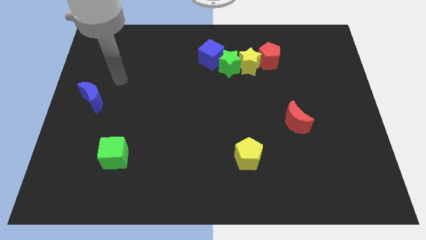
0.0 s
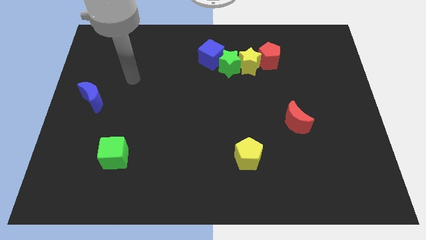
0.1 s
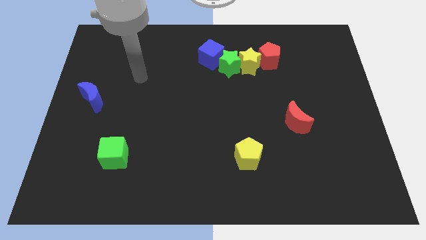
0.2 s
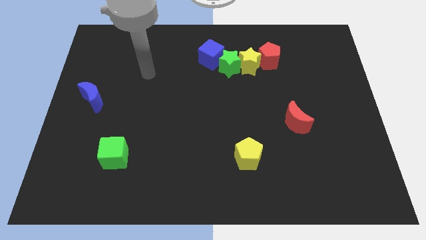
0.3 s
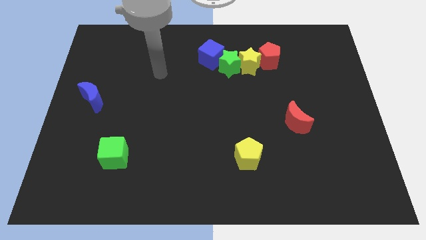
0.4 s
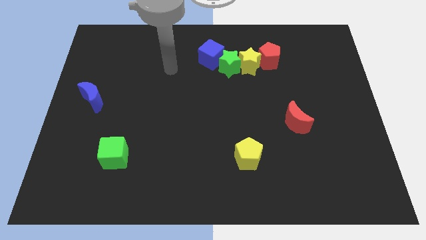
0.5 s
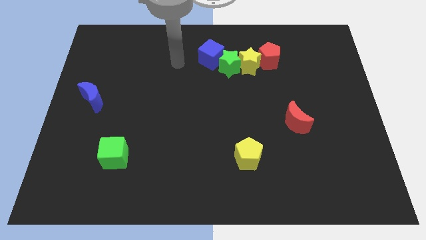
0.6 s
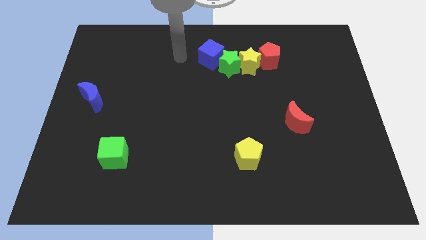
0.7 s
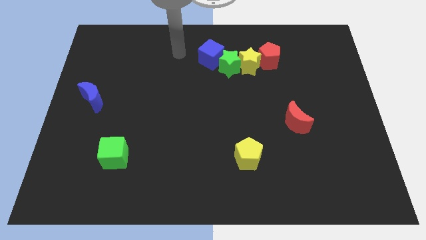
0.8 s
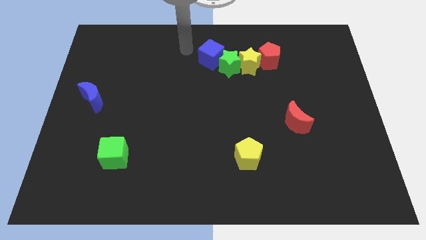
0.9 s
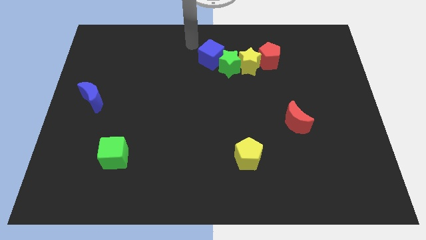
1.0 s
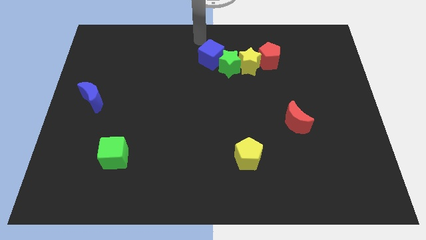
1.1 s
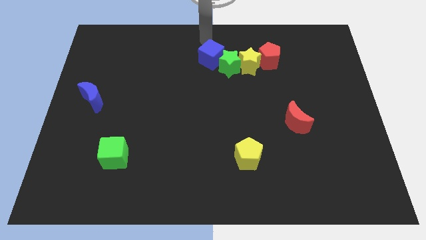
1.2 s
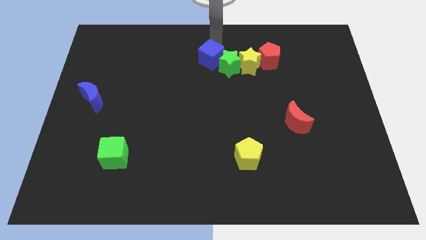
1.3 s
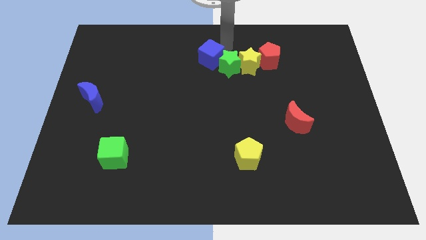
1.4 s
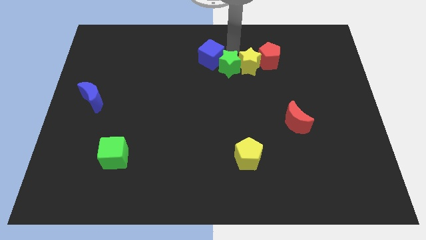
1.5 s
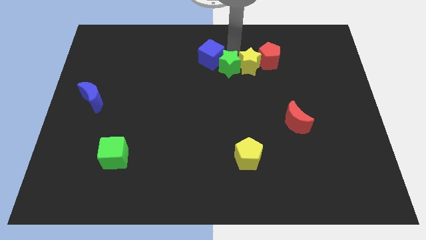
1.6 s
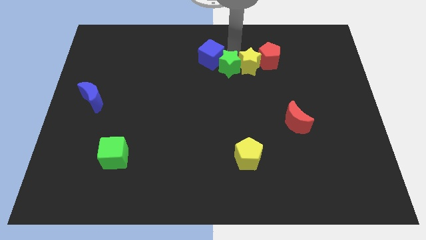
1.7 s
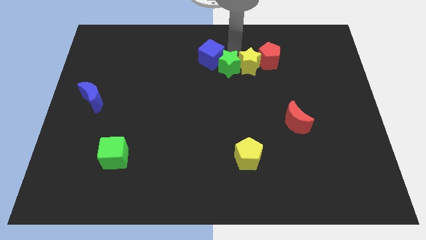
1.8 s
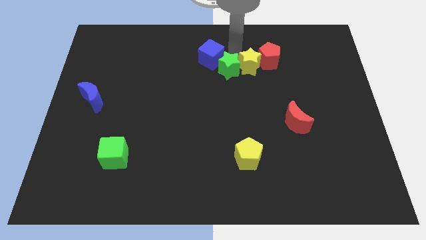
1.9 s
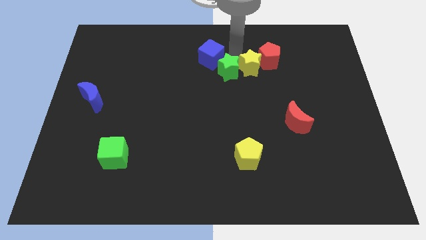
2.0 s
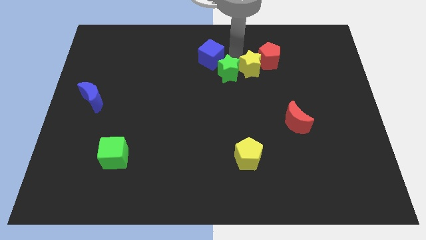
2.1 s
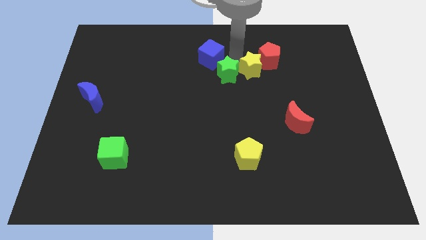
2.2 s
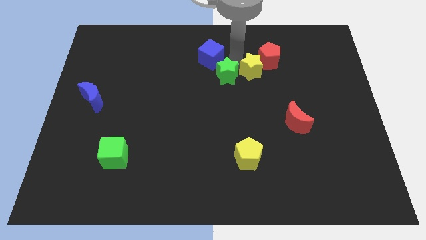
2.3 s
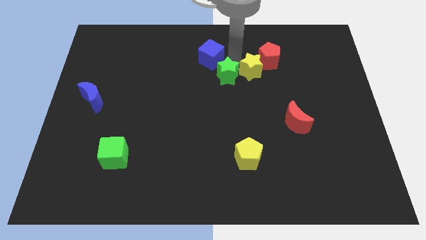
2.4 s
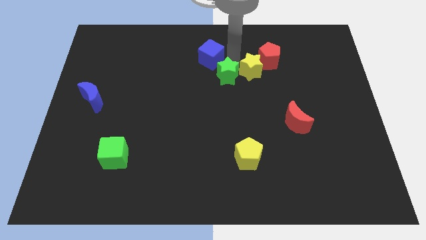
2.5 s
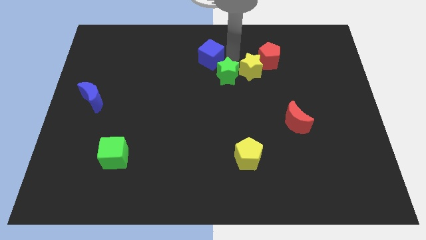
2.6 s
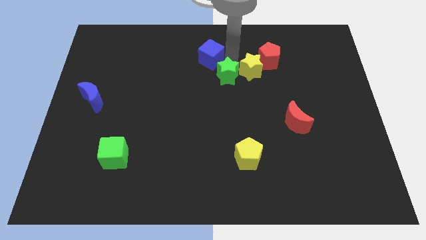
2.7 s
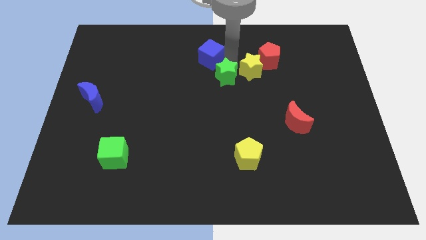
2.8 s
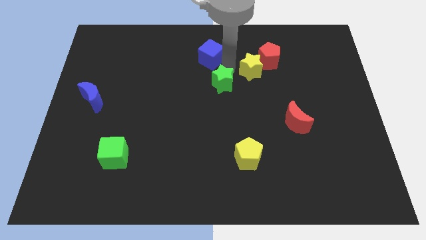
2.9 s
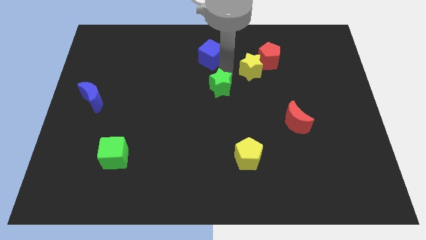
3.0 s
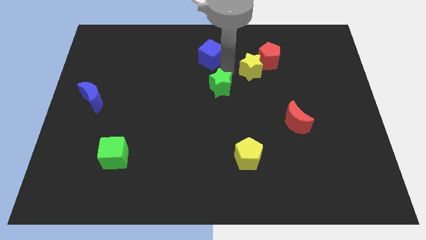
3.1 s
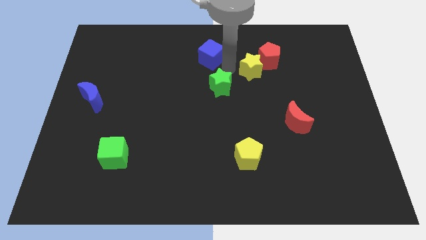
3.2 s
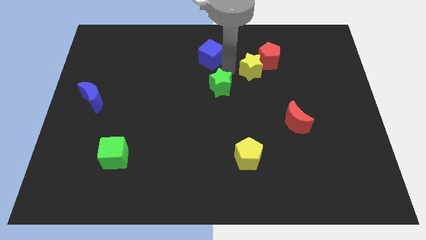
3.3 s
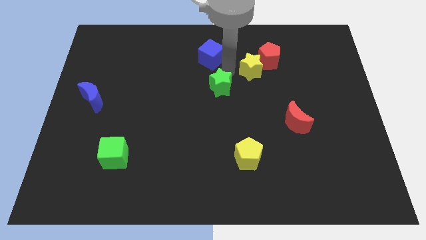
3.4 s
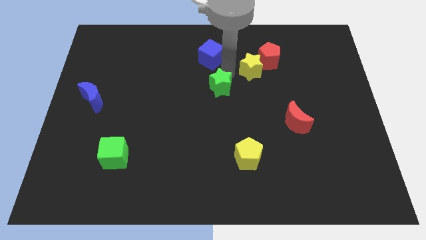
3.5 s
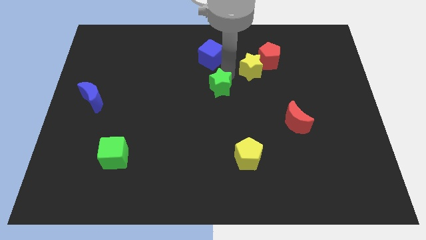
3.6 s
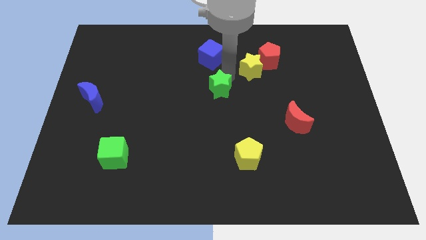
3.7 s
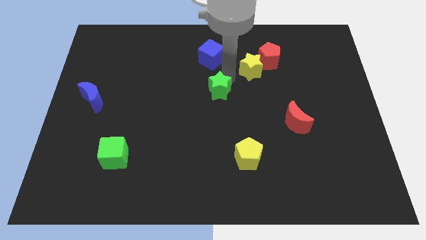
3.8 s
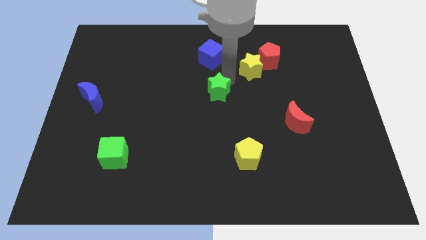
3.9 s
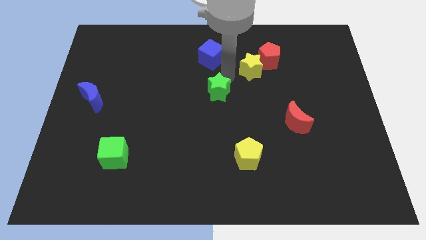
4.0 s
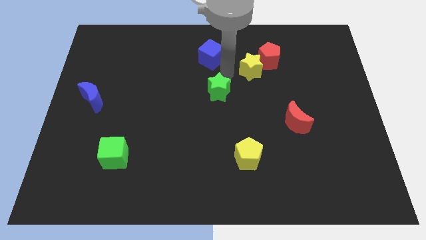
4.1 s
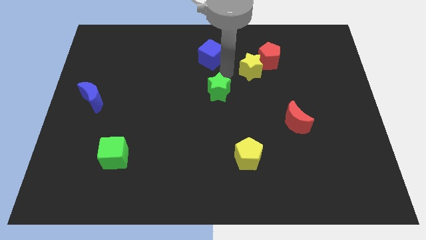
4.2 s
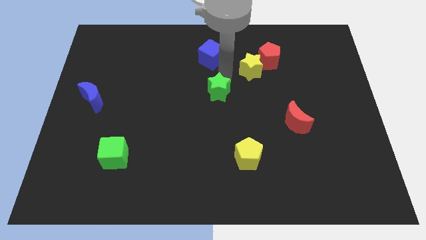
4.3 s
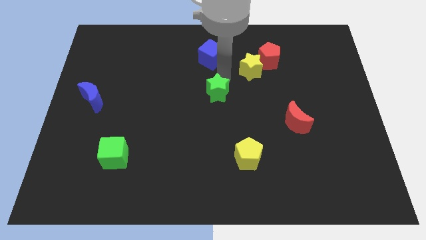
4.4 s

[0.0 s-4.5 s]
pull the green star apart from the yellow star and blue cube

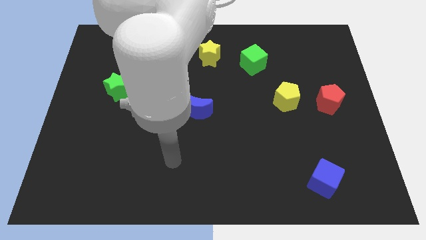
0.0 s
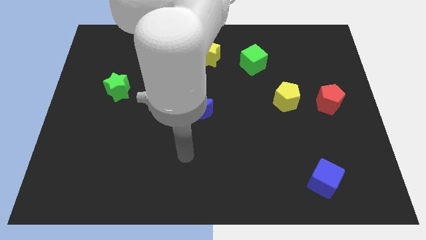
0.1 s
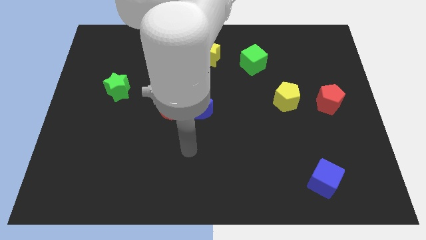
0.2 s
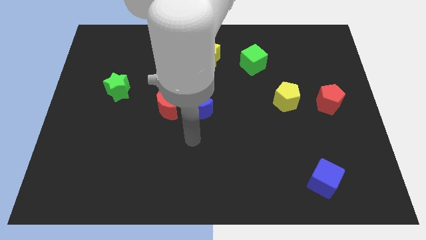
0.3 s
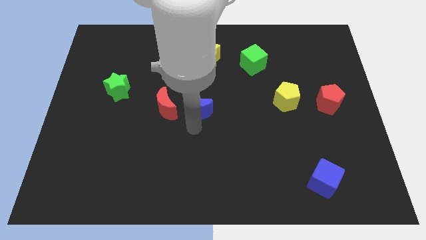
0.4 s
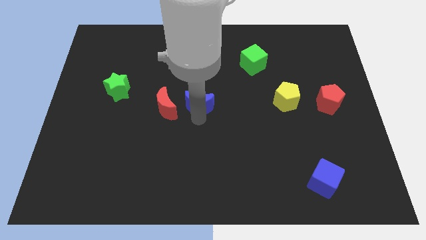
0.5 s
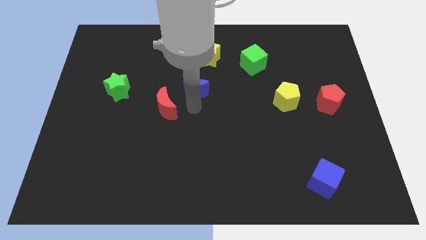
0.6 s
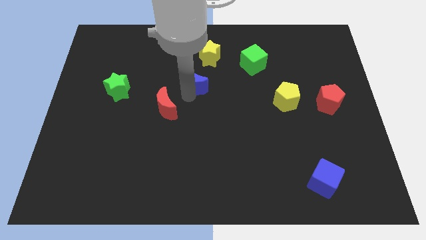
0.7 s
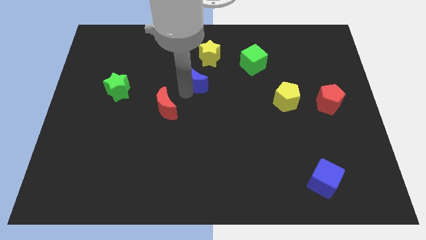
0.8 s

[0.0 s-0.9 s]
pull the red moon apart from the blue moon

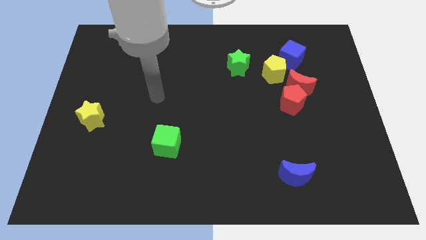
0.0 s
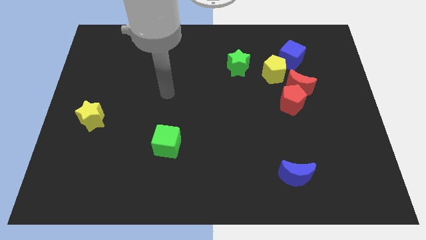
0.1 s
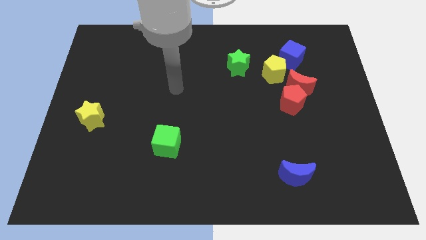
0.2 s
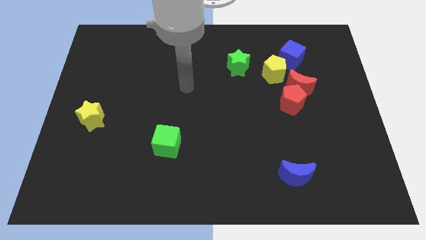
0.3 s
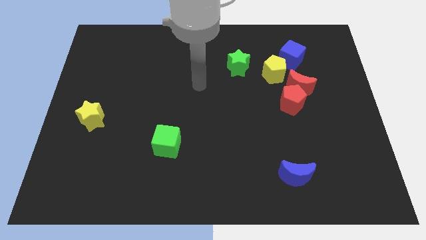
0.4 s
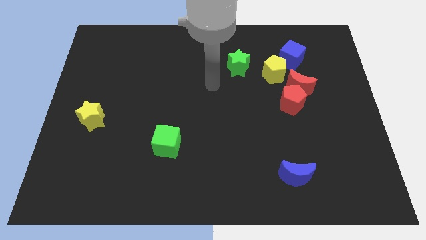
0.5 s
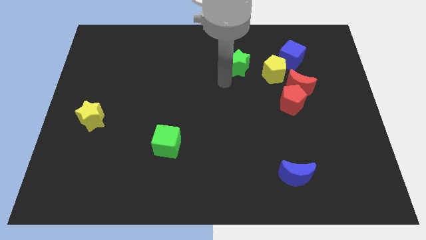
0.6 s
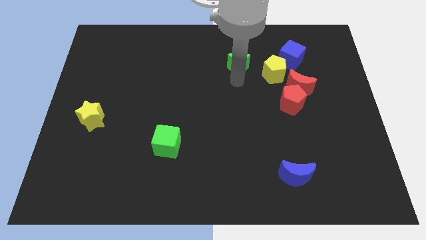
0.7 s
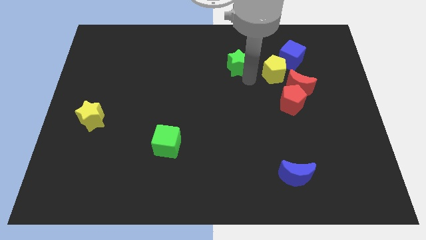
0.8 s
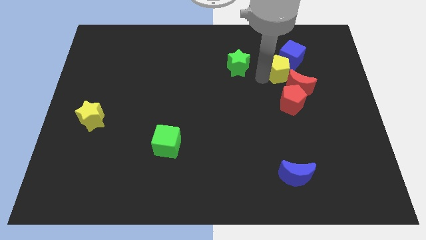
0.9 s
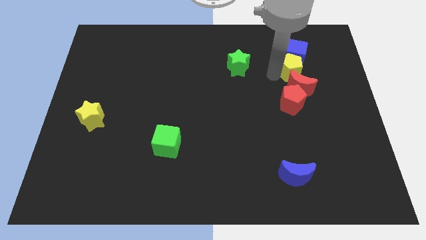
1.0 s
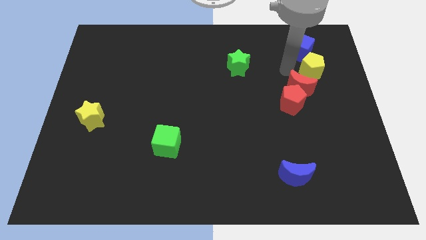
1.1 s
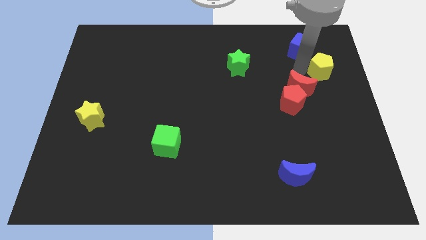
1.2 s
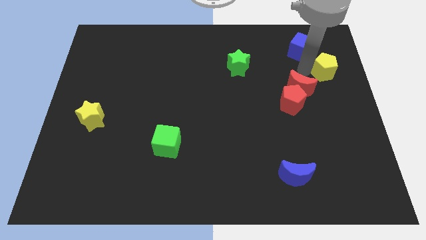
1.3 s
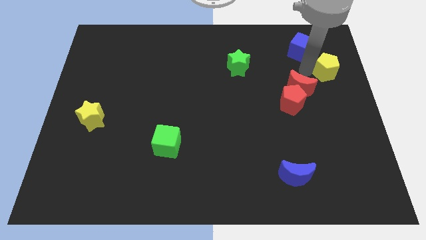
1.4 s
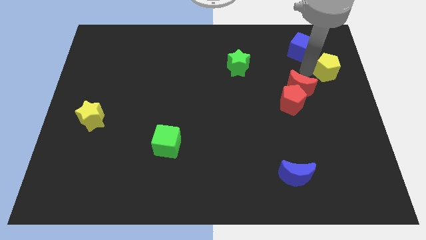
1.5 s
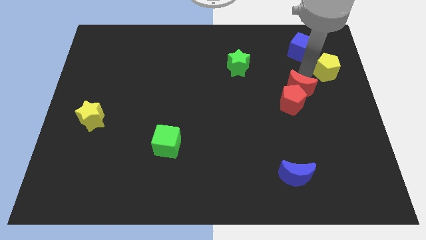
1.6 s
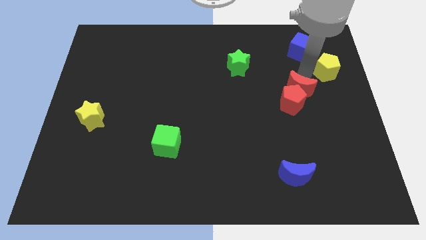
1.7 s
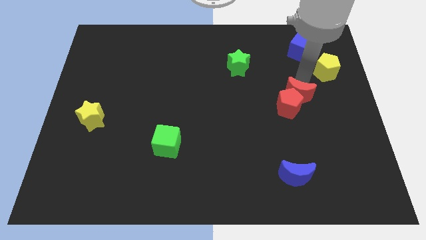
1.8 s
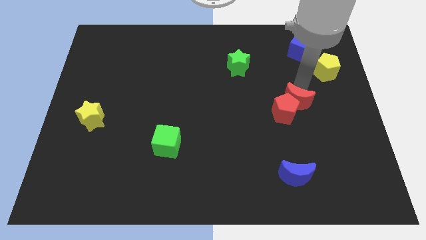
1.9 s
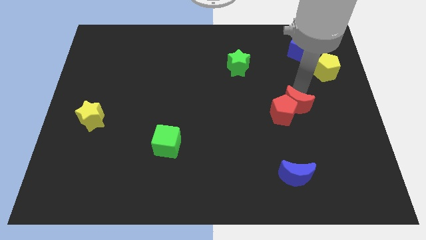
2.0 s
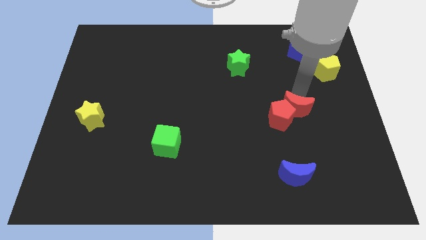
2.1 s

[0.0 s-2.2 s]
move the red moon away from the red pentagon, yellow pentagon, and blue cube

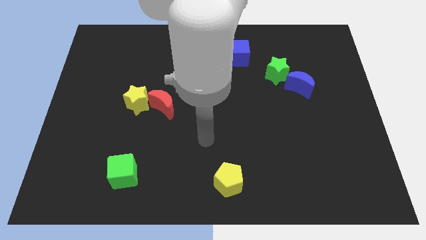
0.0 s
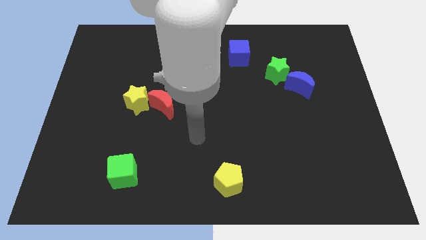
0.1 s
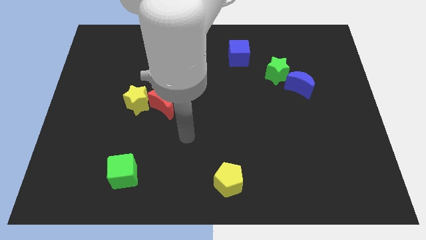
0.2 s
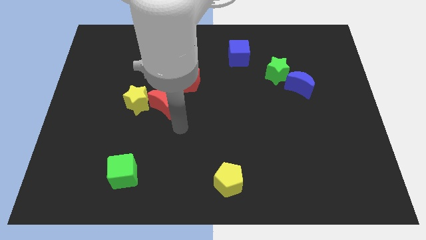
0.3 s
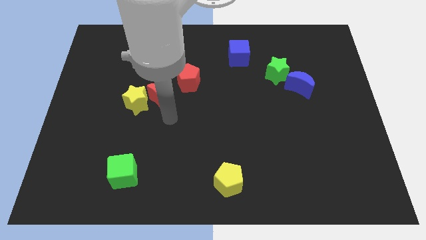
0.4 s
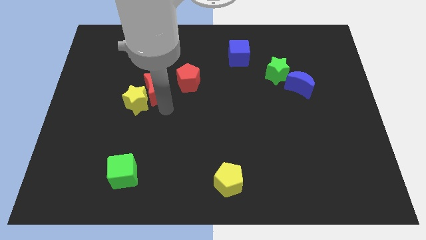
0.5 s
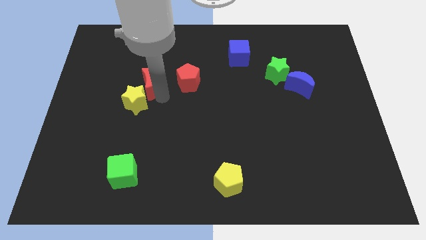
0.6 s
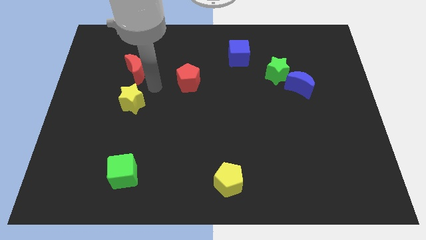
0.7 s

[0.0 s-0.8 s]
move the yellow star away from the red moon

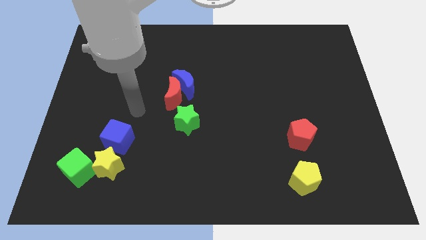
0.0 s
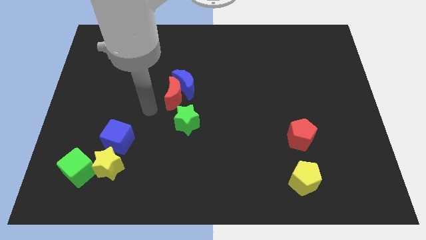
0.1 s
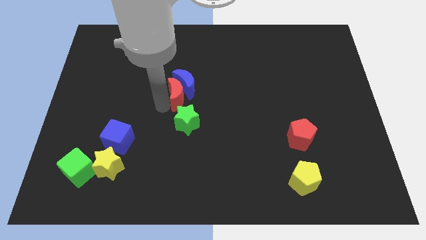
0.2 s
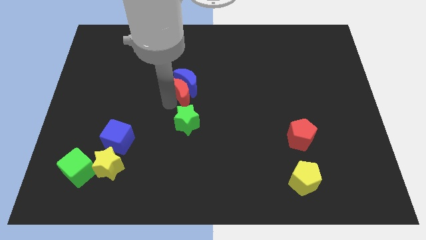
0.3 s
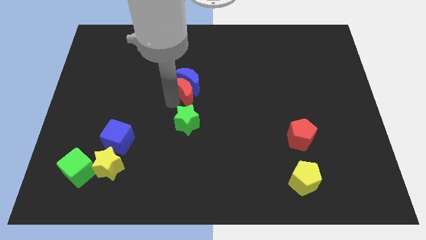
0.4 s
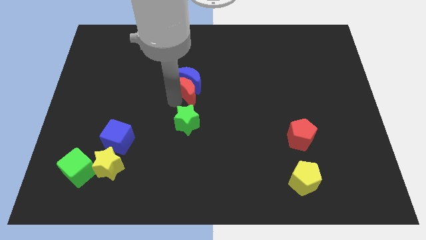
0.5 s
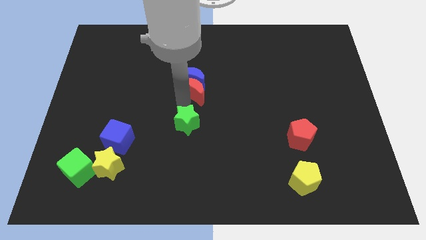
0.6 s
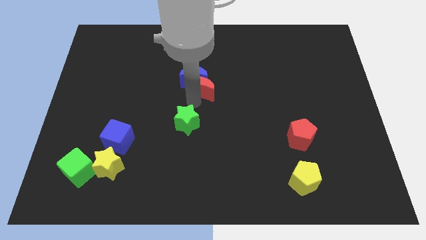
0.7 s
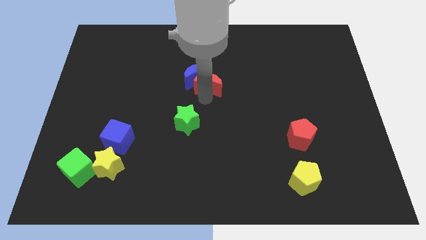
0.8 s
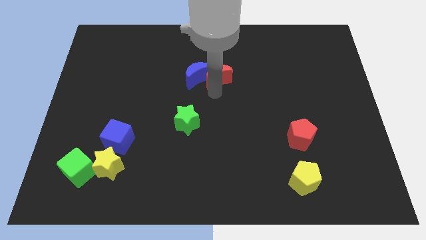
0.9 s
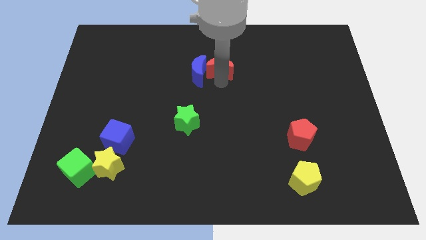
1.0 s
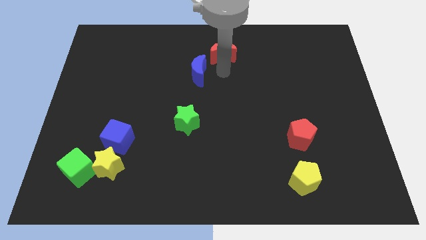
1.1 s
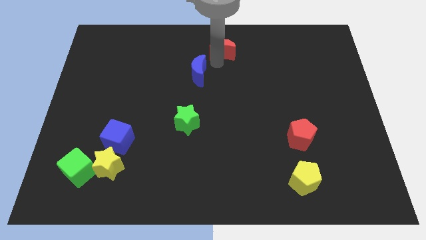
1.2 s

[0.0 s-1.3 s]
move the blue moon away from the red moon
